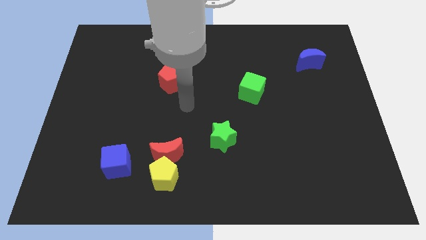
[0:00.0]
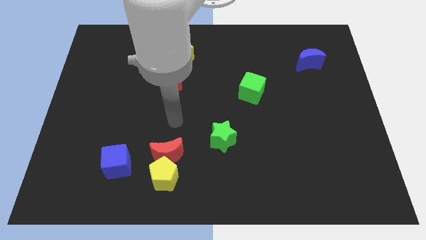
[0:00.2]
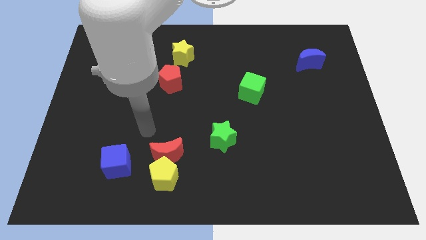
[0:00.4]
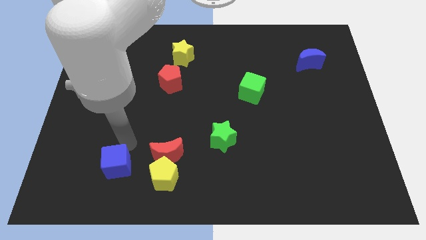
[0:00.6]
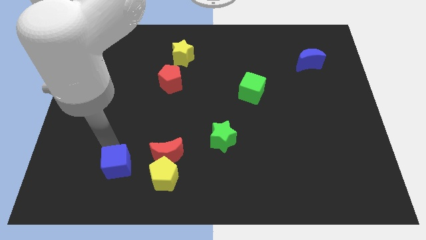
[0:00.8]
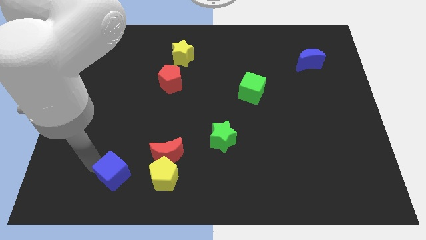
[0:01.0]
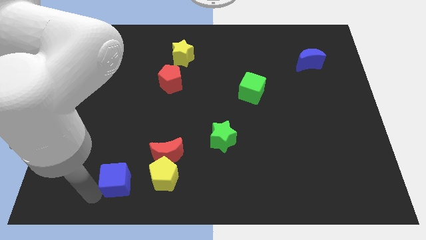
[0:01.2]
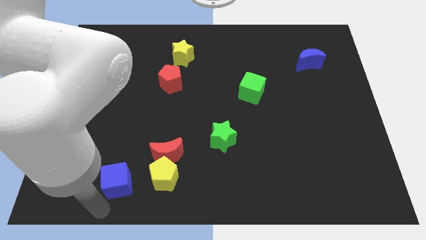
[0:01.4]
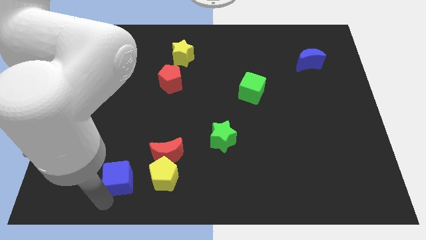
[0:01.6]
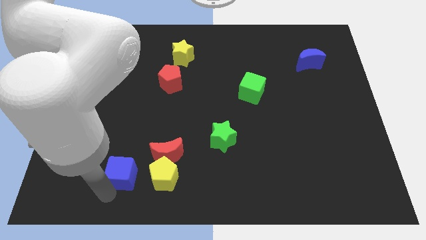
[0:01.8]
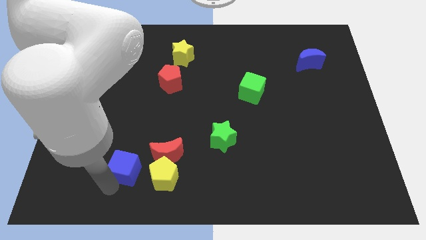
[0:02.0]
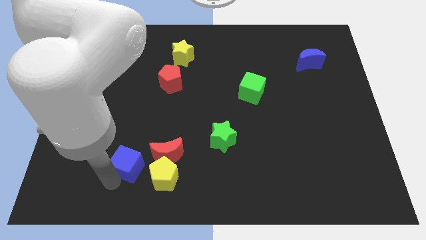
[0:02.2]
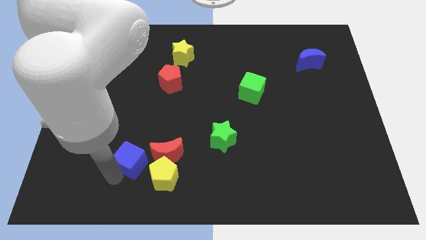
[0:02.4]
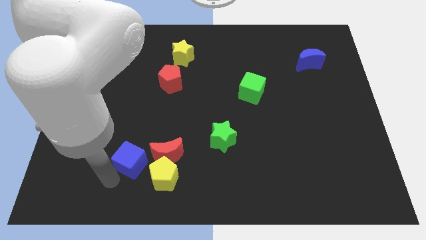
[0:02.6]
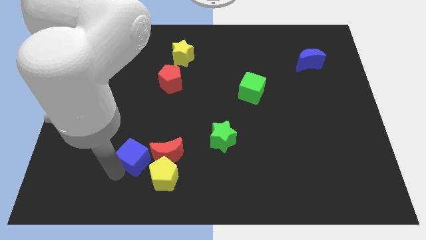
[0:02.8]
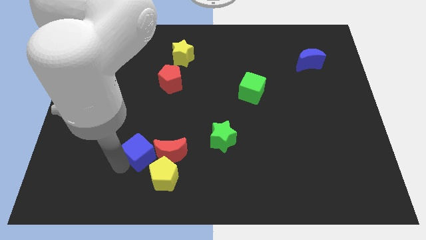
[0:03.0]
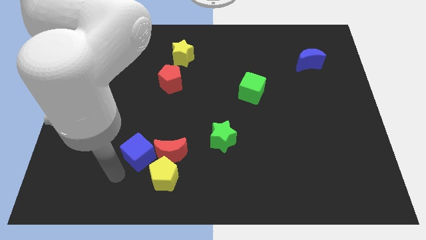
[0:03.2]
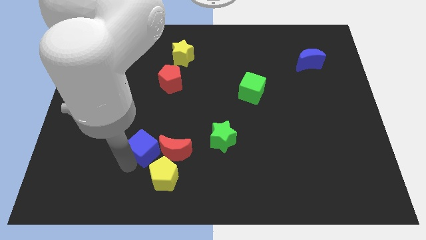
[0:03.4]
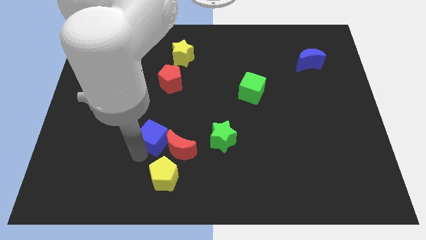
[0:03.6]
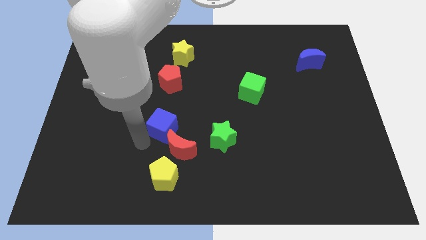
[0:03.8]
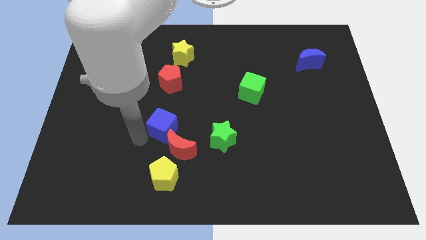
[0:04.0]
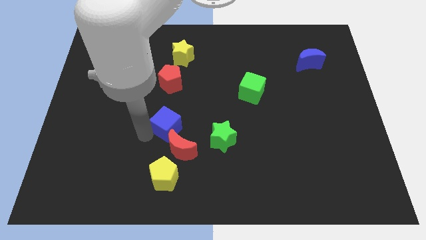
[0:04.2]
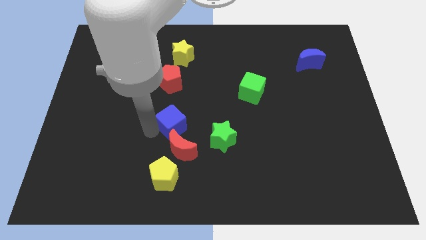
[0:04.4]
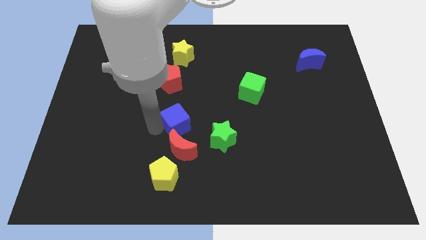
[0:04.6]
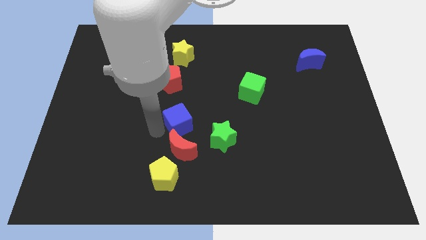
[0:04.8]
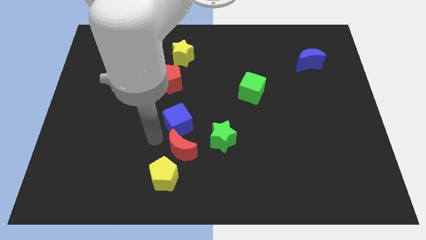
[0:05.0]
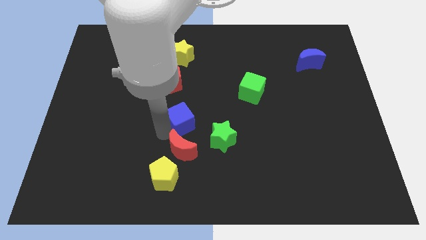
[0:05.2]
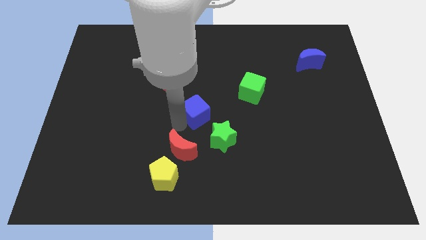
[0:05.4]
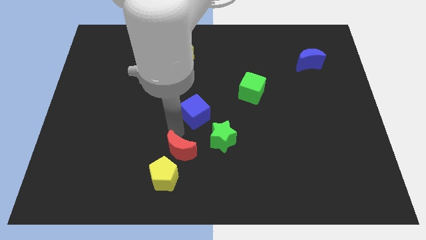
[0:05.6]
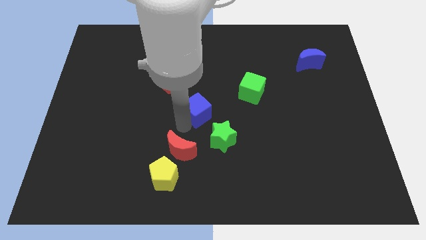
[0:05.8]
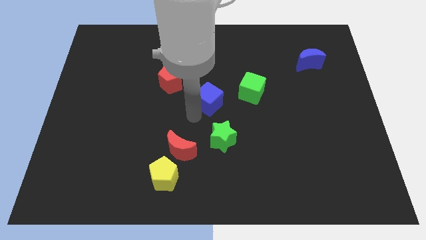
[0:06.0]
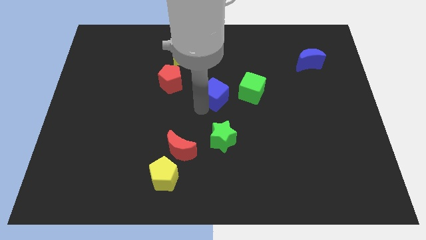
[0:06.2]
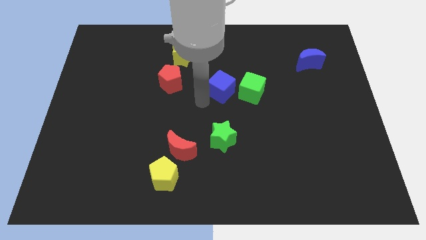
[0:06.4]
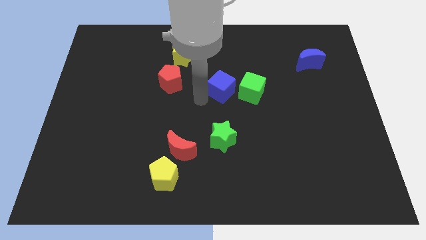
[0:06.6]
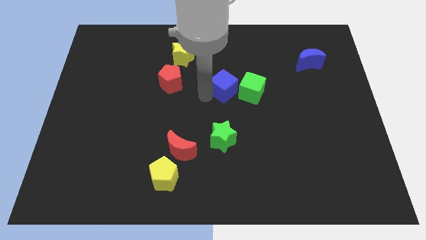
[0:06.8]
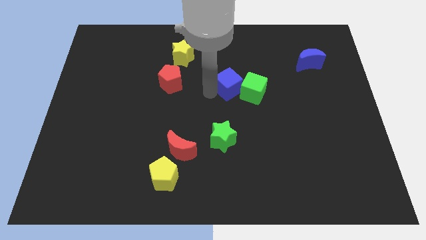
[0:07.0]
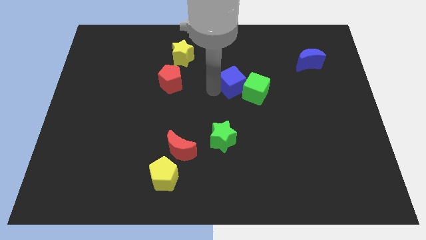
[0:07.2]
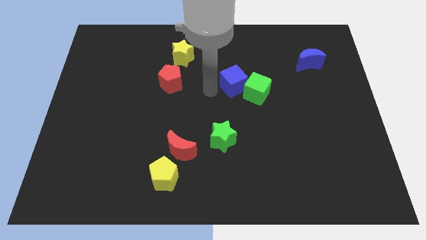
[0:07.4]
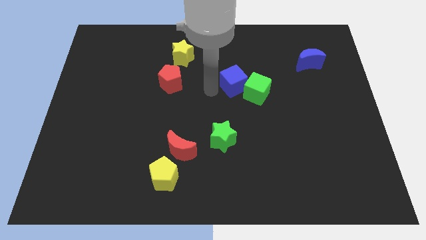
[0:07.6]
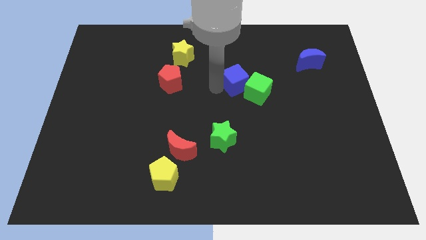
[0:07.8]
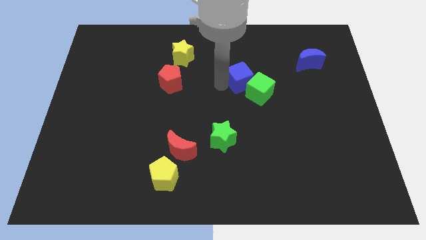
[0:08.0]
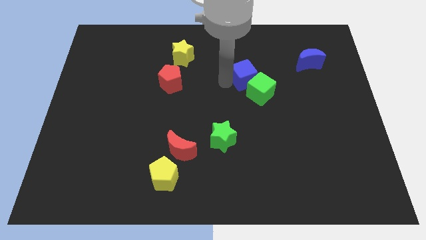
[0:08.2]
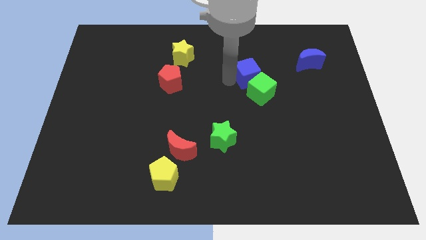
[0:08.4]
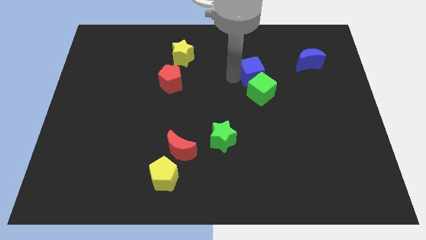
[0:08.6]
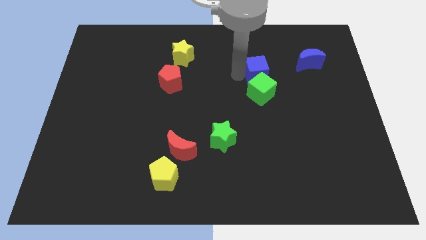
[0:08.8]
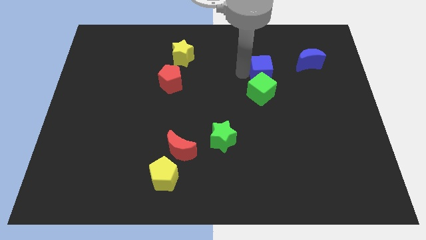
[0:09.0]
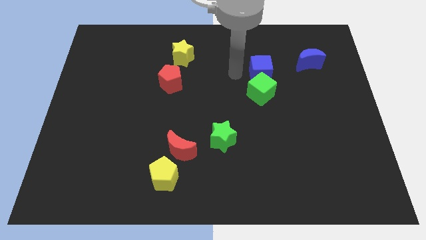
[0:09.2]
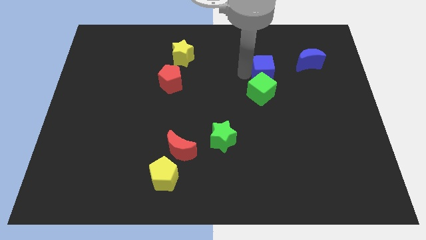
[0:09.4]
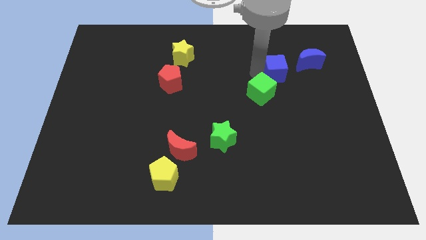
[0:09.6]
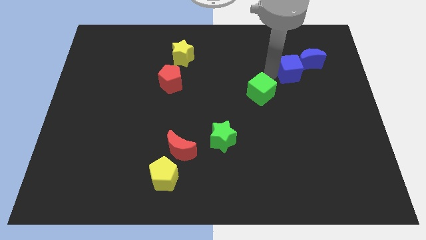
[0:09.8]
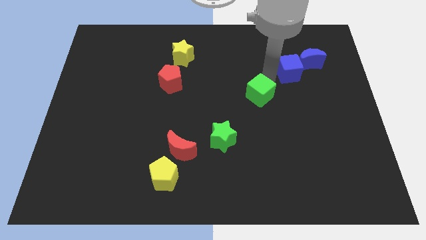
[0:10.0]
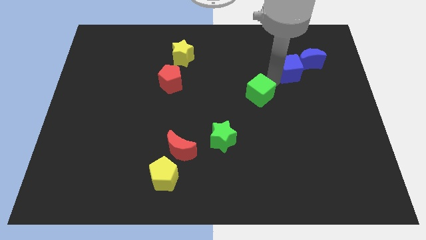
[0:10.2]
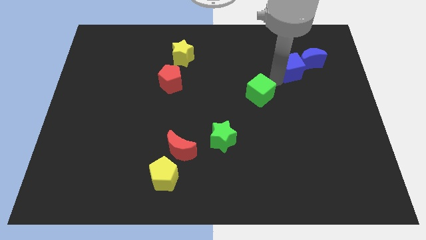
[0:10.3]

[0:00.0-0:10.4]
push the blue cube next to the blue moon

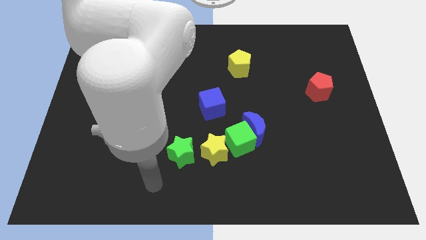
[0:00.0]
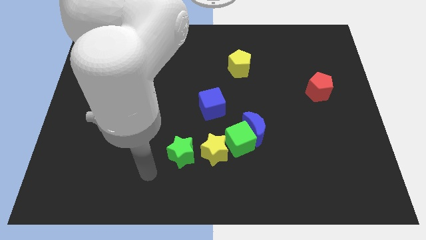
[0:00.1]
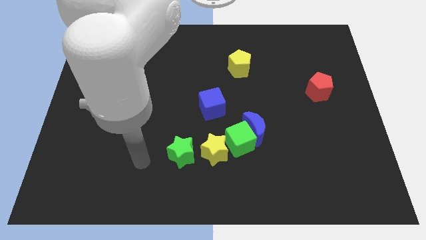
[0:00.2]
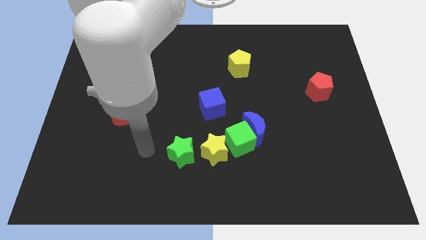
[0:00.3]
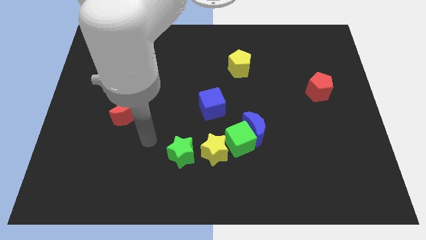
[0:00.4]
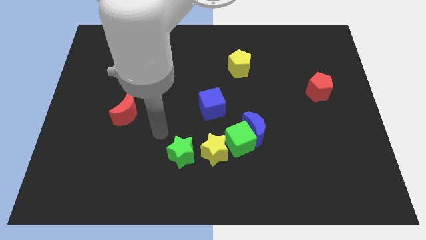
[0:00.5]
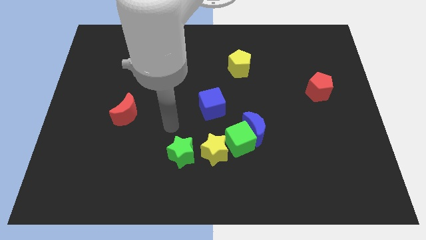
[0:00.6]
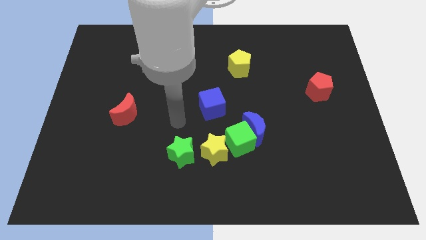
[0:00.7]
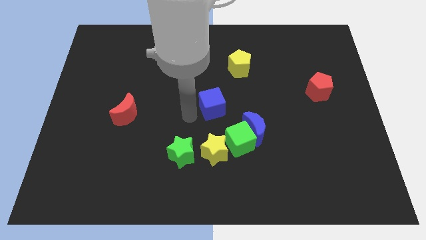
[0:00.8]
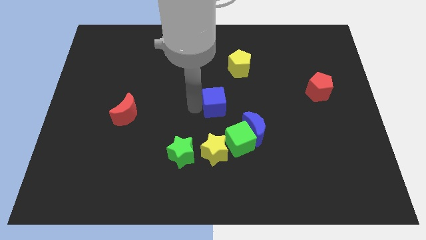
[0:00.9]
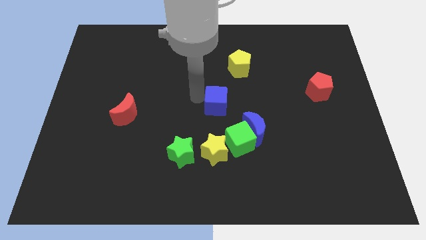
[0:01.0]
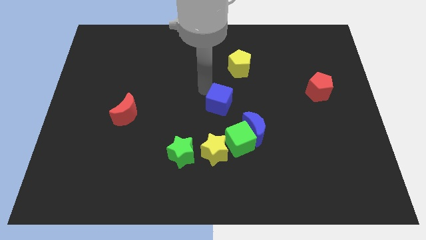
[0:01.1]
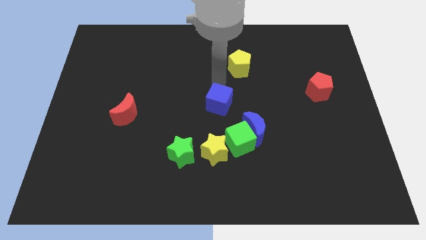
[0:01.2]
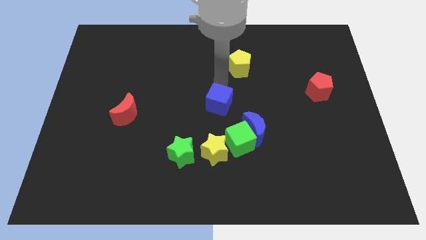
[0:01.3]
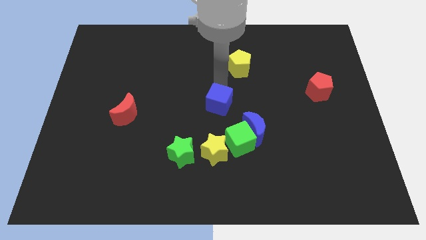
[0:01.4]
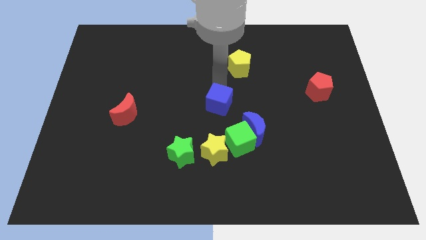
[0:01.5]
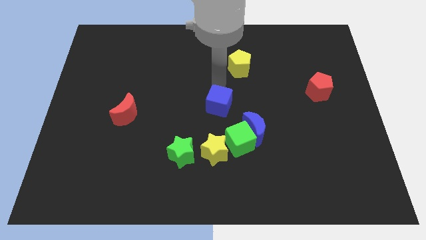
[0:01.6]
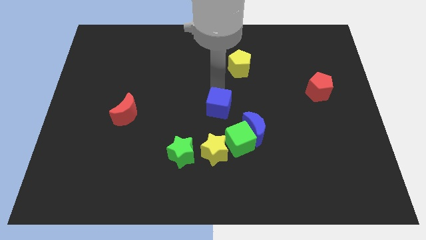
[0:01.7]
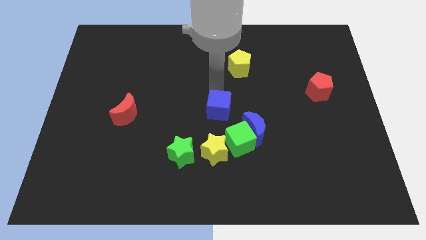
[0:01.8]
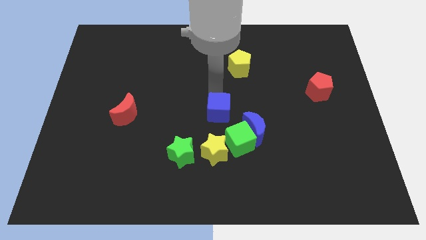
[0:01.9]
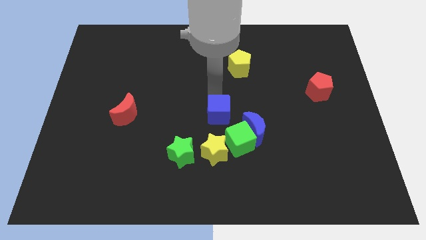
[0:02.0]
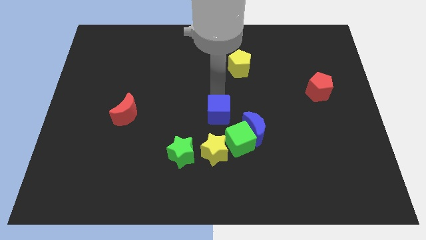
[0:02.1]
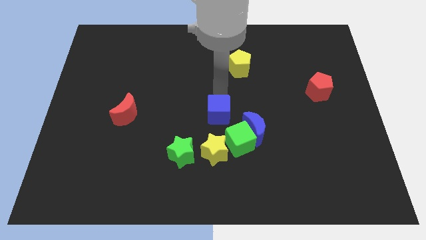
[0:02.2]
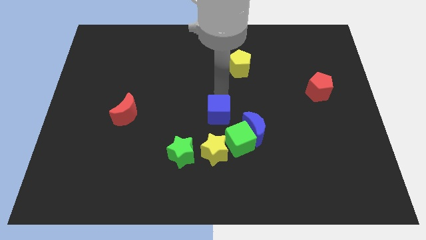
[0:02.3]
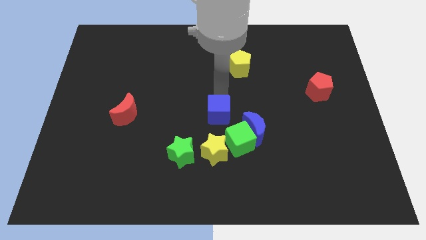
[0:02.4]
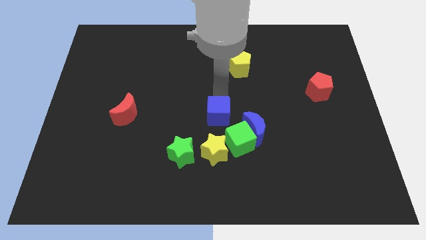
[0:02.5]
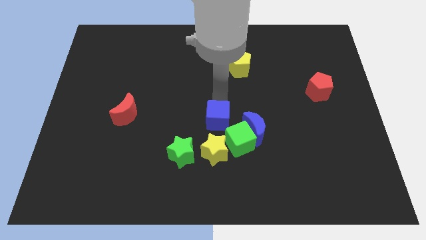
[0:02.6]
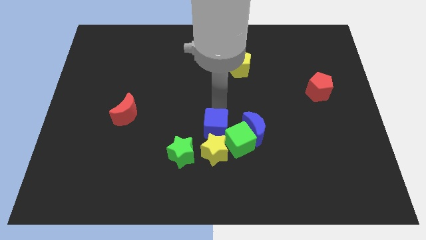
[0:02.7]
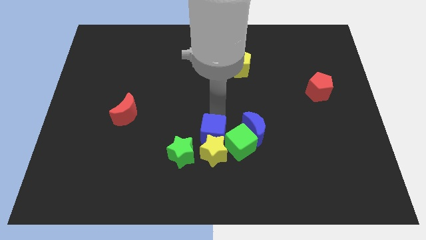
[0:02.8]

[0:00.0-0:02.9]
push the blue cube close to the yellow star
